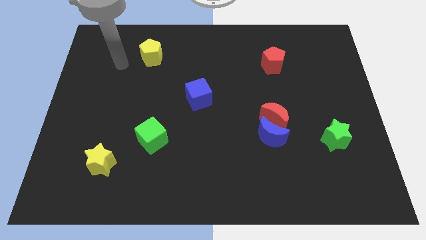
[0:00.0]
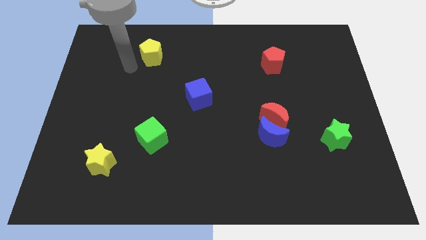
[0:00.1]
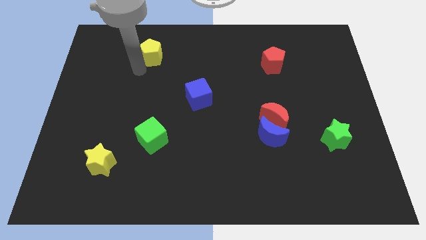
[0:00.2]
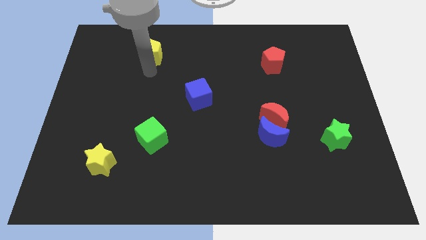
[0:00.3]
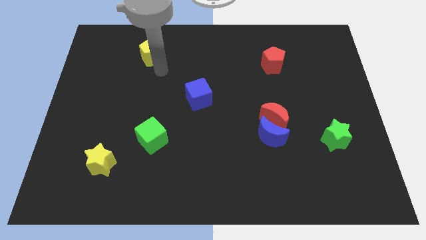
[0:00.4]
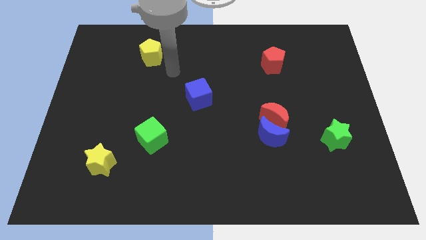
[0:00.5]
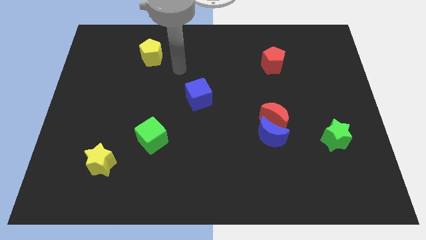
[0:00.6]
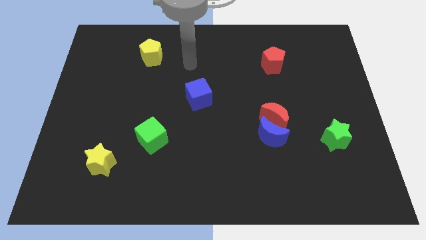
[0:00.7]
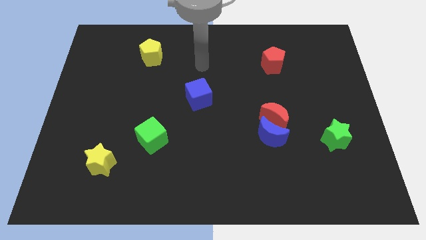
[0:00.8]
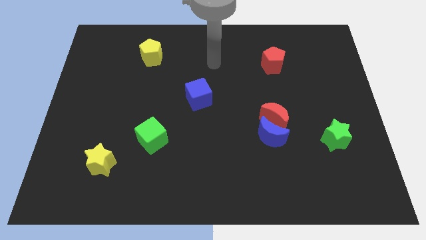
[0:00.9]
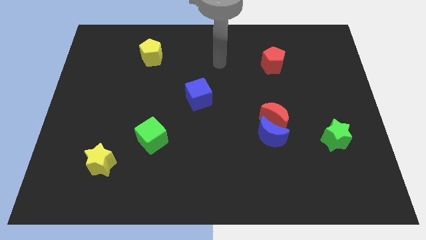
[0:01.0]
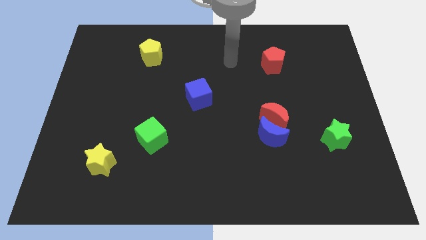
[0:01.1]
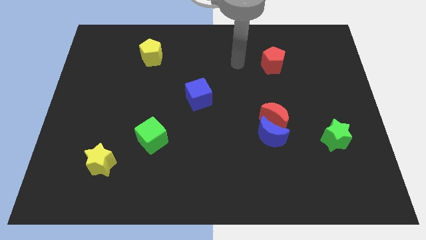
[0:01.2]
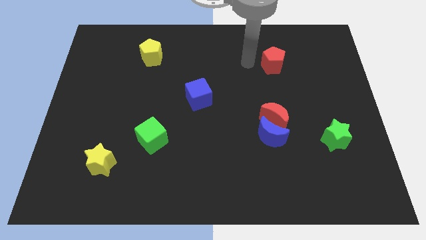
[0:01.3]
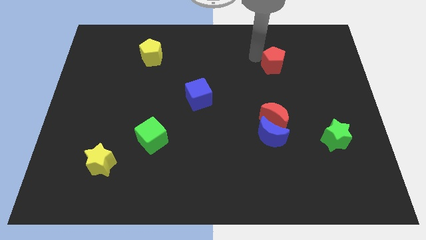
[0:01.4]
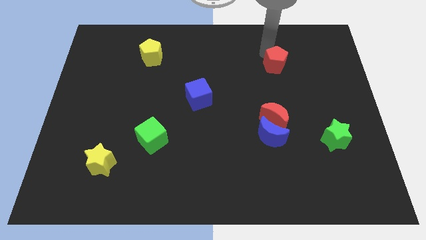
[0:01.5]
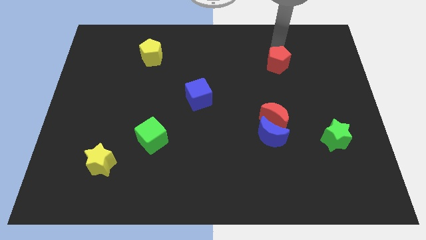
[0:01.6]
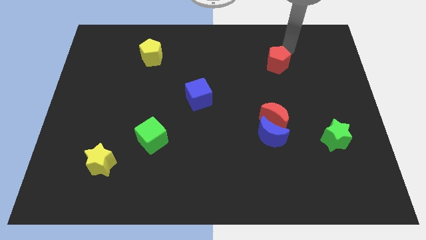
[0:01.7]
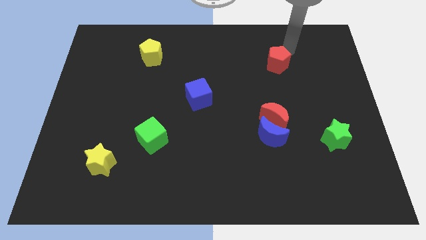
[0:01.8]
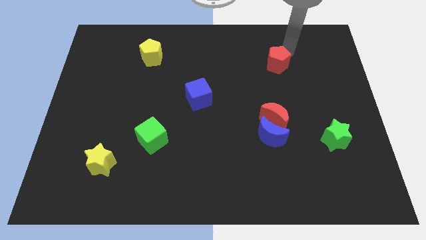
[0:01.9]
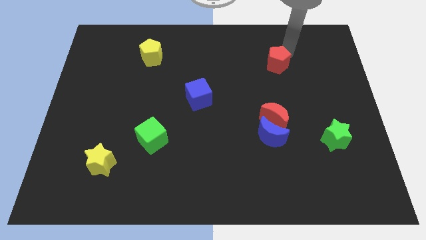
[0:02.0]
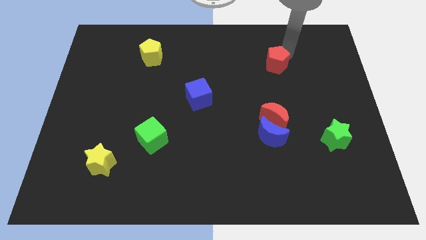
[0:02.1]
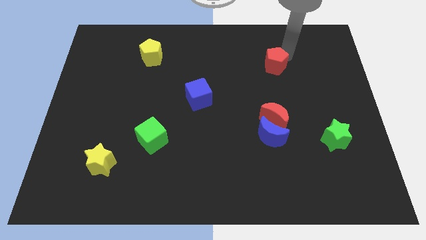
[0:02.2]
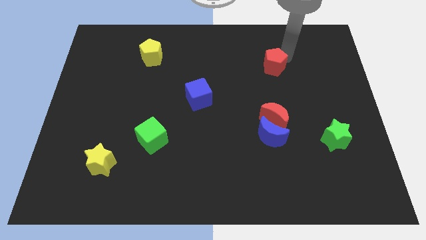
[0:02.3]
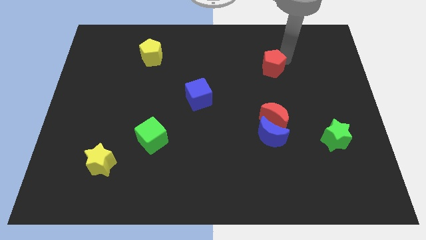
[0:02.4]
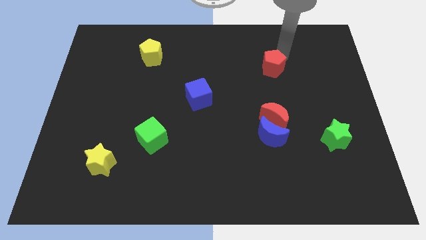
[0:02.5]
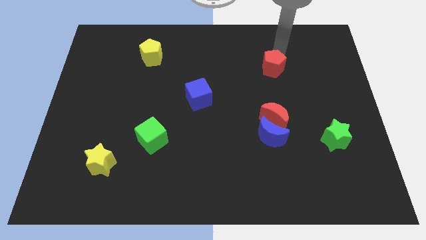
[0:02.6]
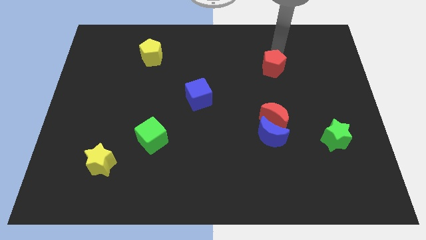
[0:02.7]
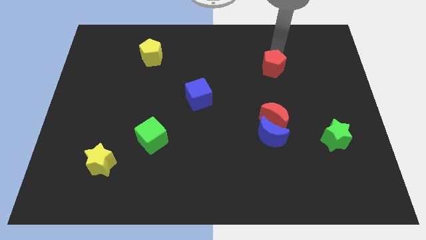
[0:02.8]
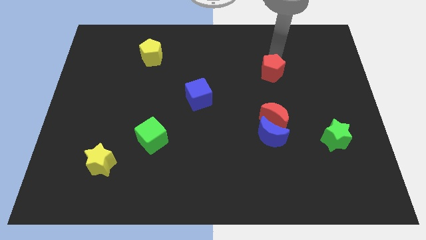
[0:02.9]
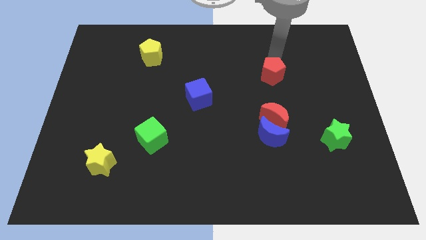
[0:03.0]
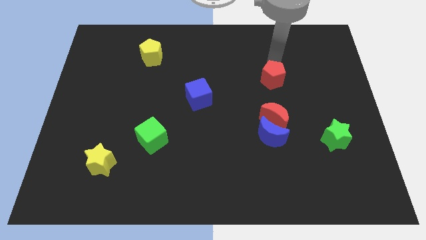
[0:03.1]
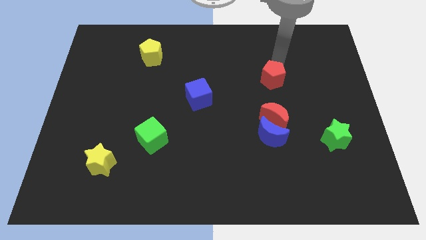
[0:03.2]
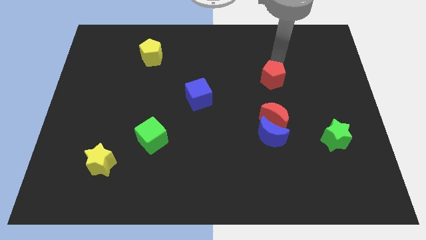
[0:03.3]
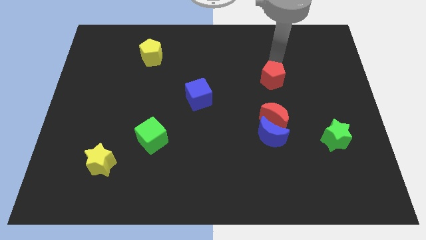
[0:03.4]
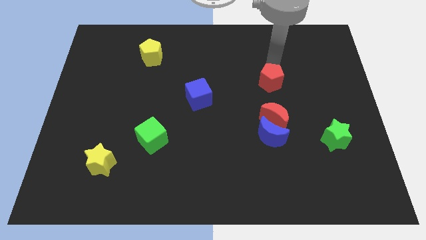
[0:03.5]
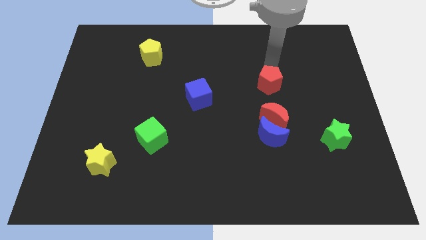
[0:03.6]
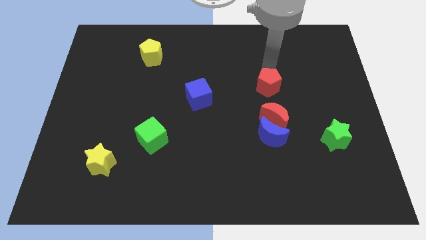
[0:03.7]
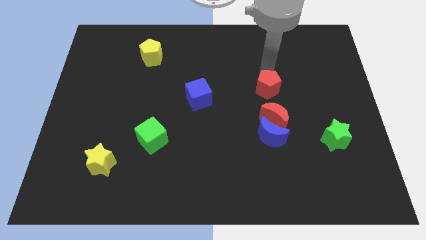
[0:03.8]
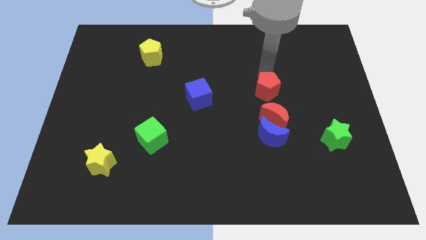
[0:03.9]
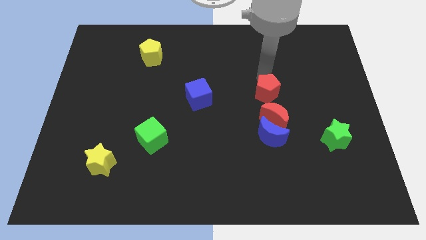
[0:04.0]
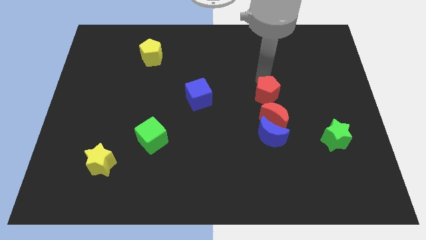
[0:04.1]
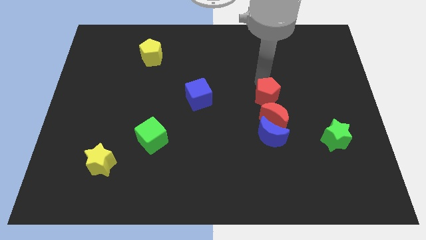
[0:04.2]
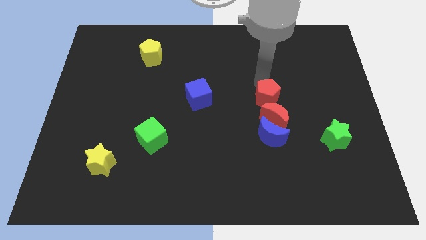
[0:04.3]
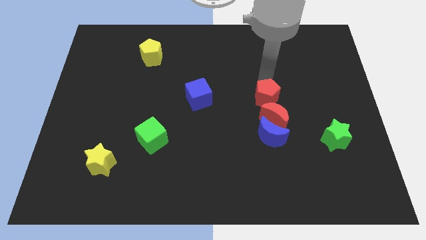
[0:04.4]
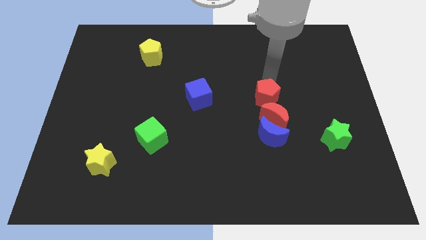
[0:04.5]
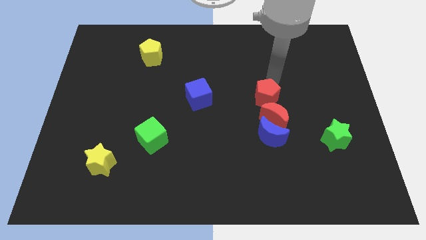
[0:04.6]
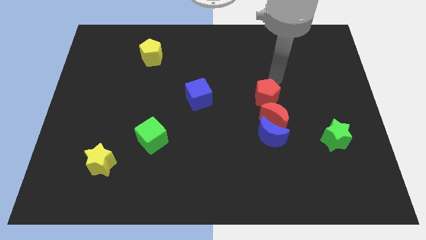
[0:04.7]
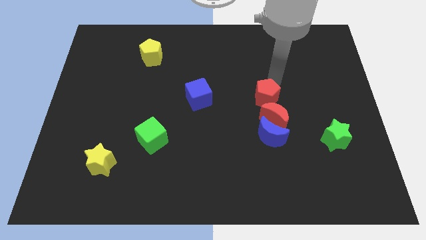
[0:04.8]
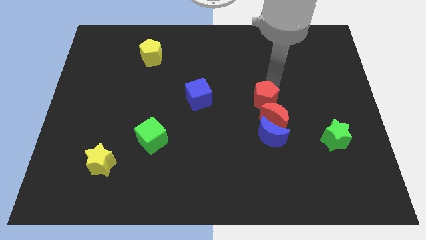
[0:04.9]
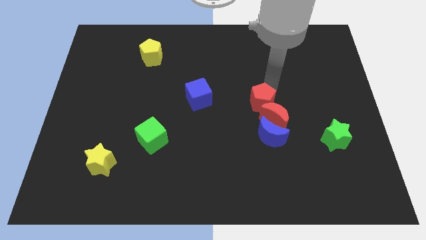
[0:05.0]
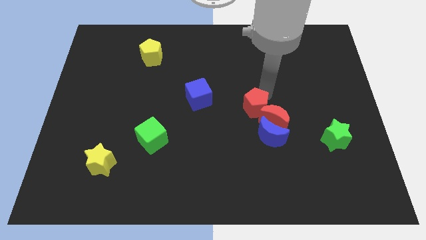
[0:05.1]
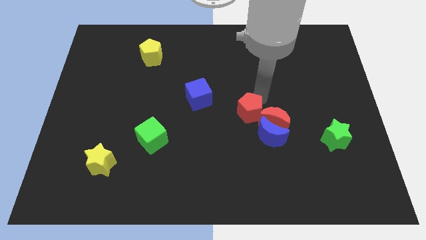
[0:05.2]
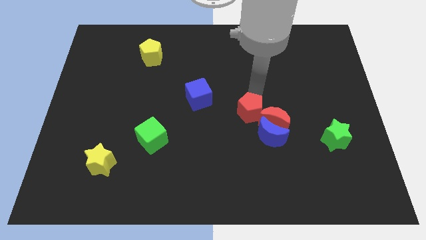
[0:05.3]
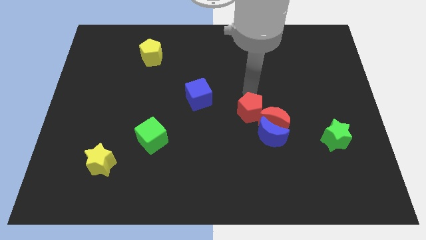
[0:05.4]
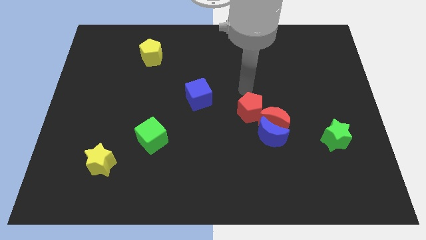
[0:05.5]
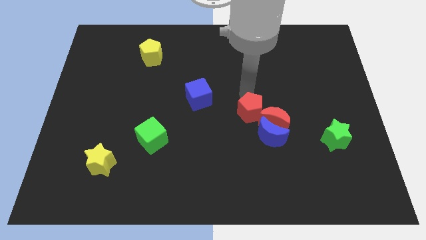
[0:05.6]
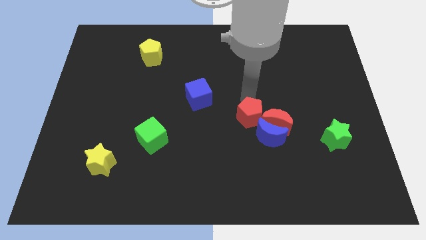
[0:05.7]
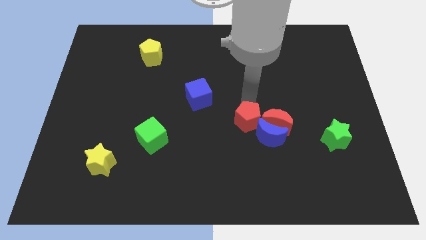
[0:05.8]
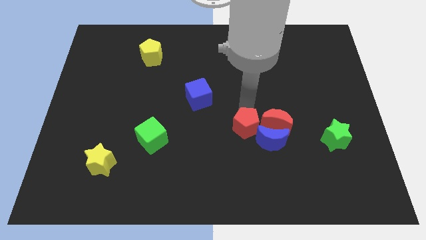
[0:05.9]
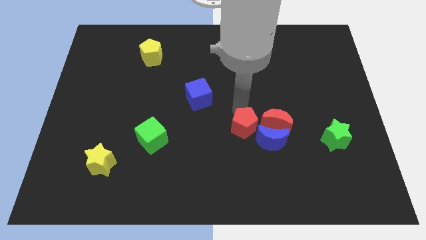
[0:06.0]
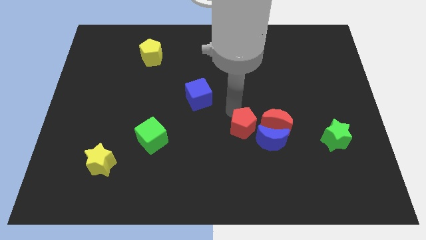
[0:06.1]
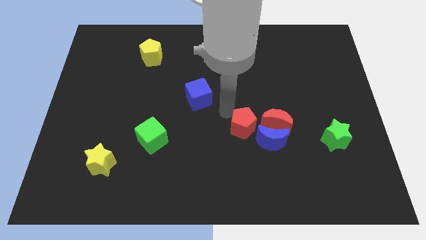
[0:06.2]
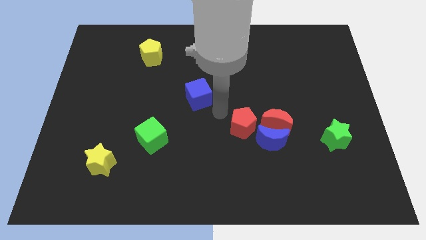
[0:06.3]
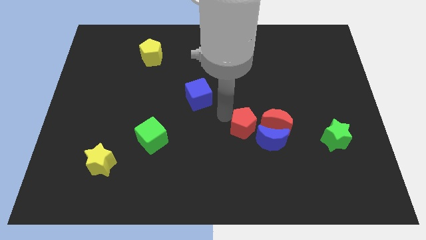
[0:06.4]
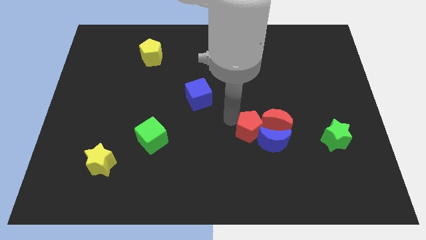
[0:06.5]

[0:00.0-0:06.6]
push the red pentagon to the blue moon

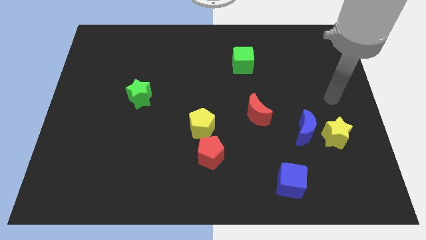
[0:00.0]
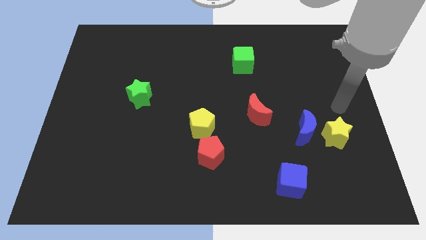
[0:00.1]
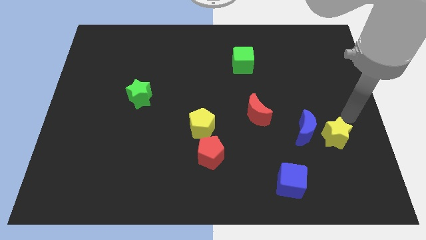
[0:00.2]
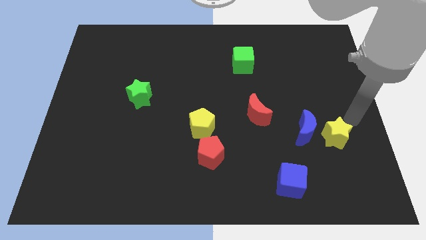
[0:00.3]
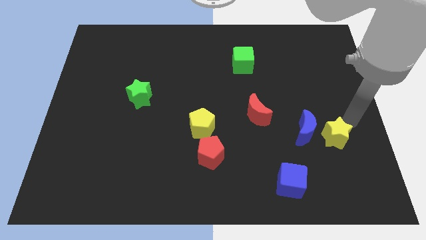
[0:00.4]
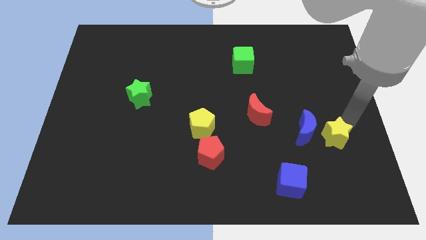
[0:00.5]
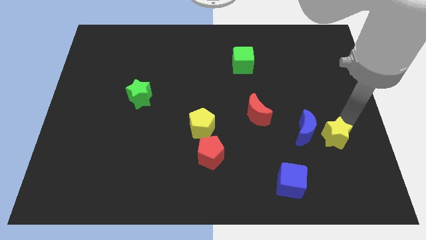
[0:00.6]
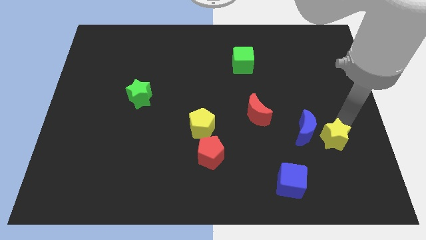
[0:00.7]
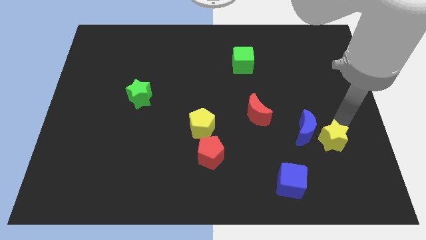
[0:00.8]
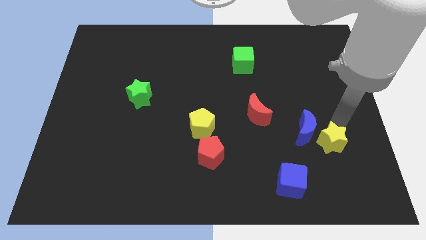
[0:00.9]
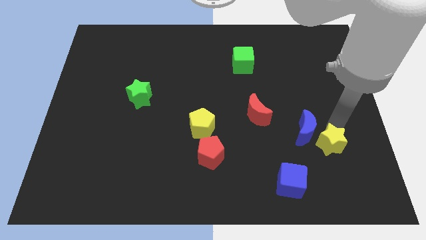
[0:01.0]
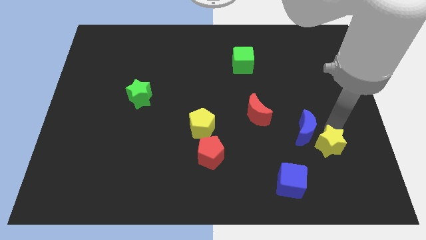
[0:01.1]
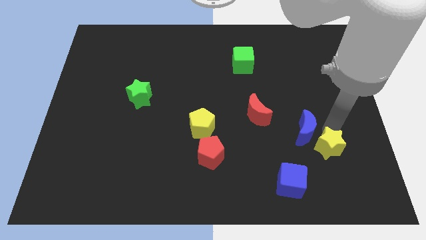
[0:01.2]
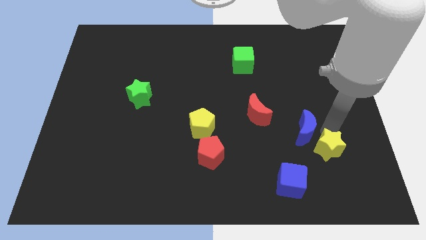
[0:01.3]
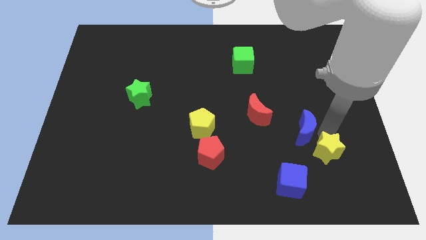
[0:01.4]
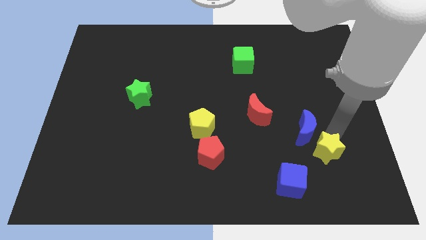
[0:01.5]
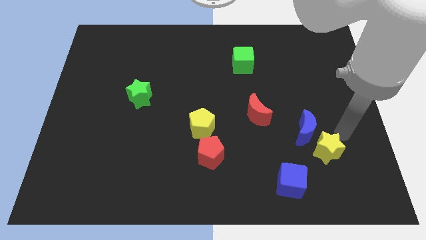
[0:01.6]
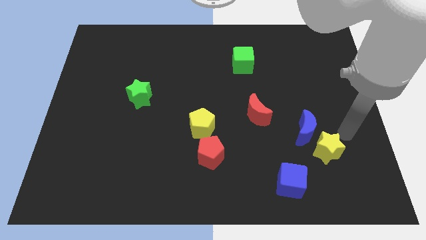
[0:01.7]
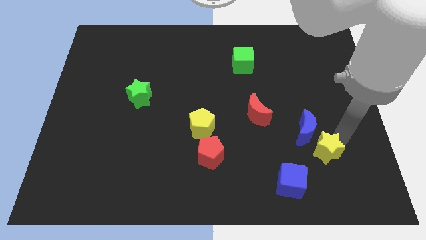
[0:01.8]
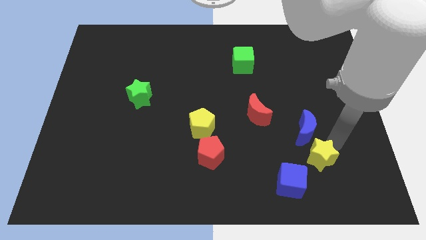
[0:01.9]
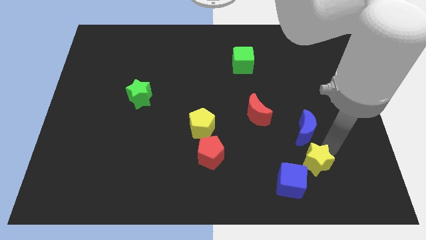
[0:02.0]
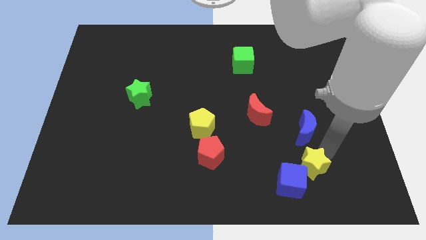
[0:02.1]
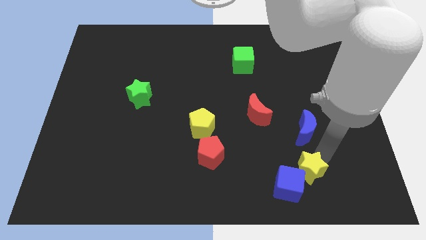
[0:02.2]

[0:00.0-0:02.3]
push the yellow star to the blue cube
